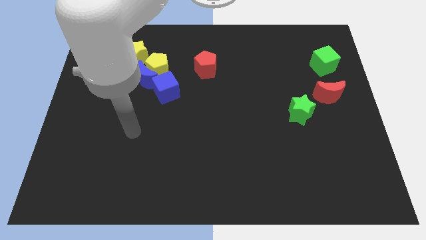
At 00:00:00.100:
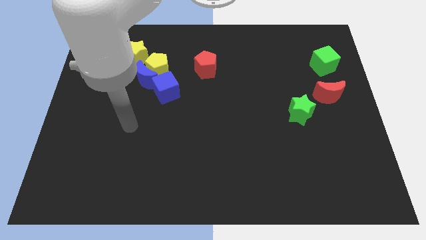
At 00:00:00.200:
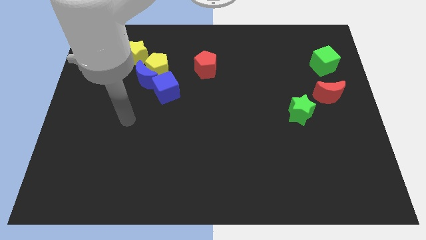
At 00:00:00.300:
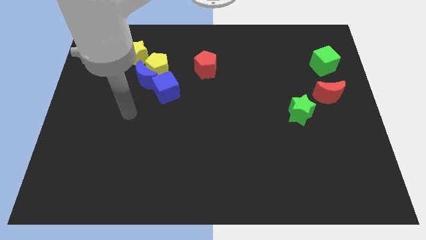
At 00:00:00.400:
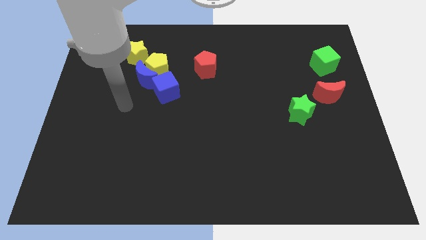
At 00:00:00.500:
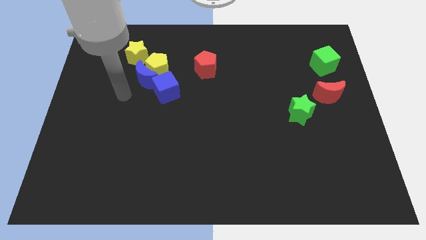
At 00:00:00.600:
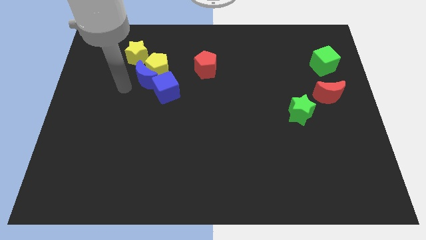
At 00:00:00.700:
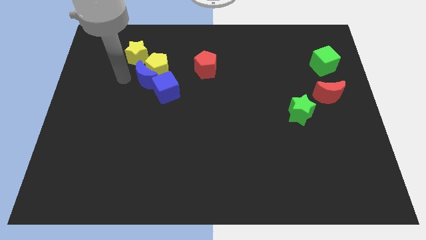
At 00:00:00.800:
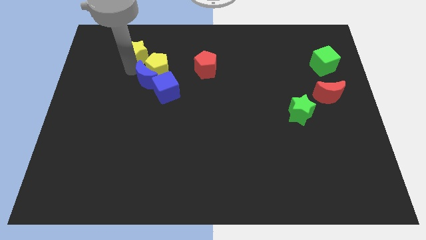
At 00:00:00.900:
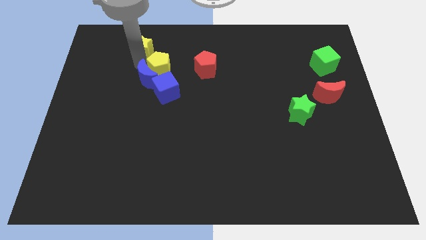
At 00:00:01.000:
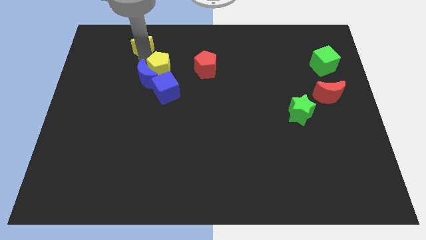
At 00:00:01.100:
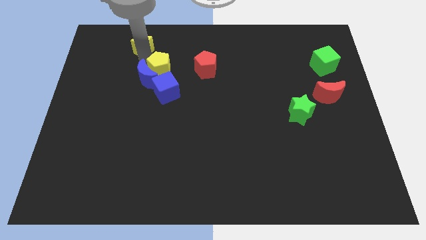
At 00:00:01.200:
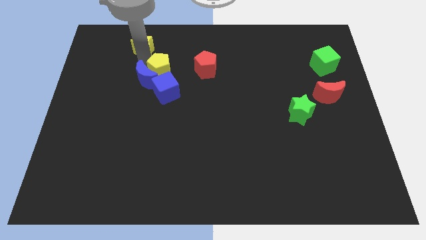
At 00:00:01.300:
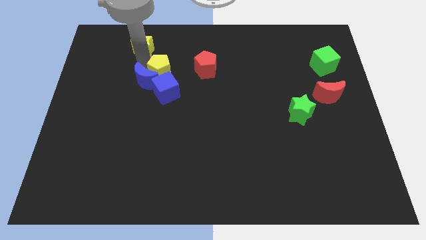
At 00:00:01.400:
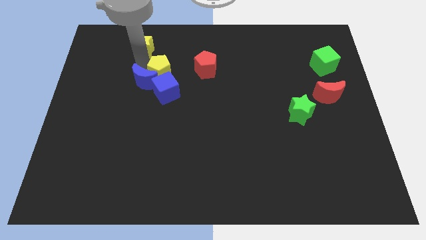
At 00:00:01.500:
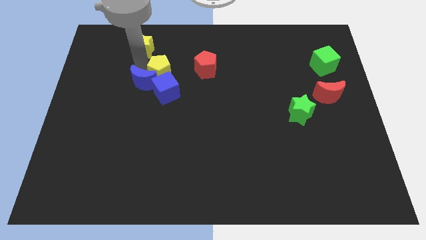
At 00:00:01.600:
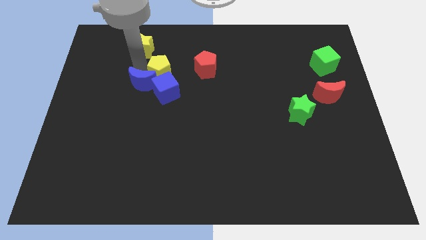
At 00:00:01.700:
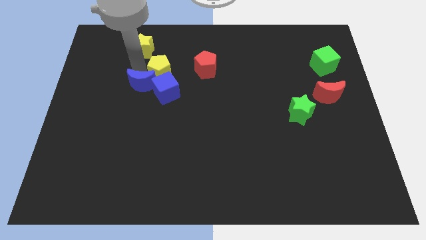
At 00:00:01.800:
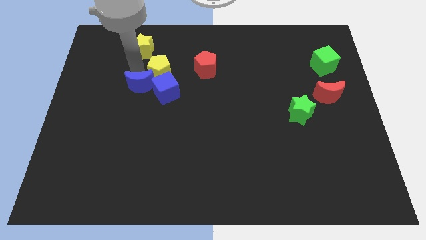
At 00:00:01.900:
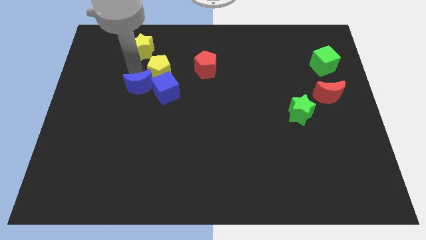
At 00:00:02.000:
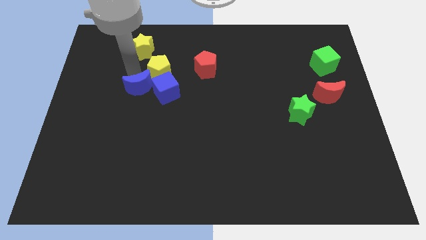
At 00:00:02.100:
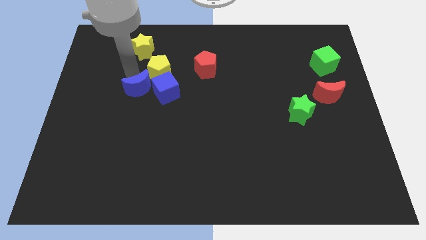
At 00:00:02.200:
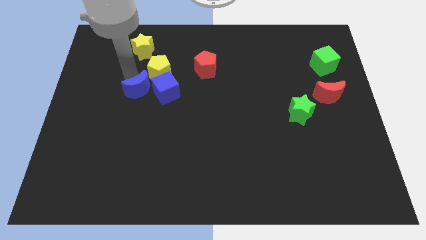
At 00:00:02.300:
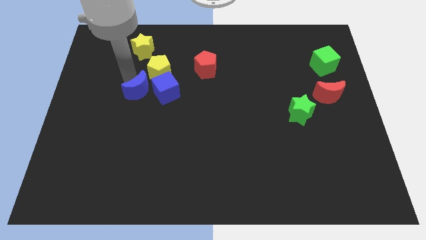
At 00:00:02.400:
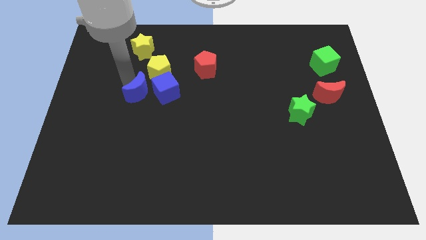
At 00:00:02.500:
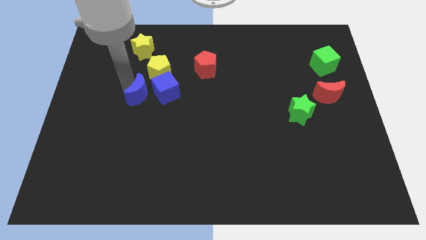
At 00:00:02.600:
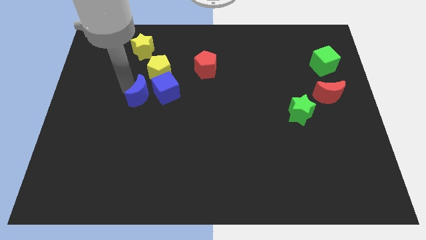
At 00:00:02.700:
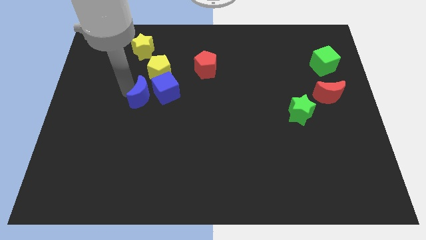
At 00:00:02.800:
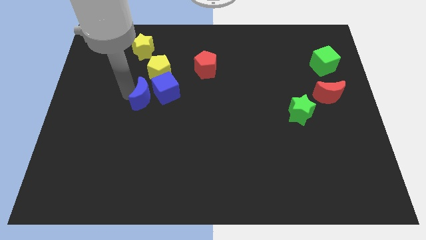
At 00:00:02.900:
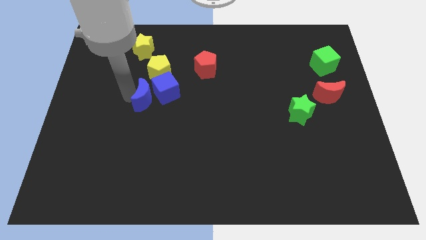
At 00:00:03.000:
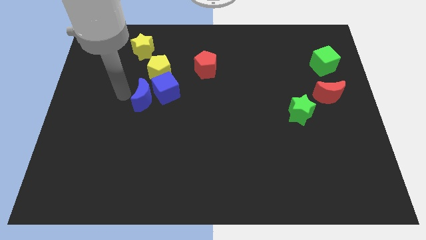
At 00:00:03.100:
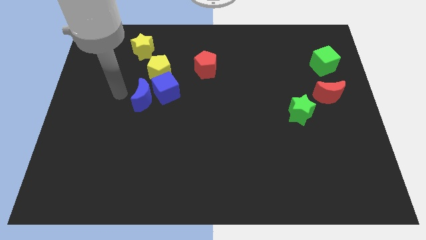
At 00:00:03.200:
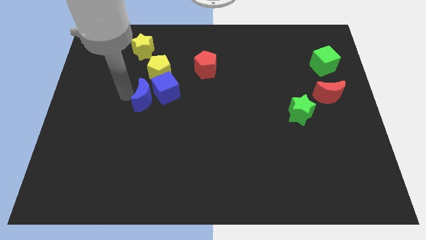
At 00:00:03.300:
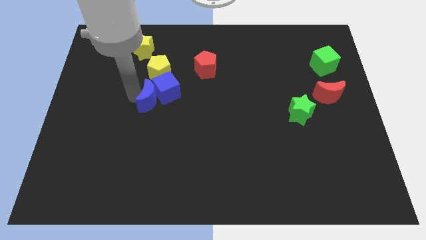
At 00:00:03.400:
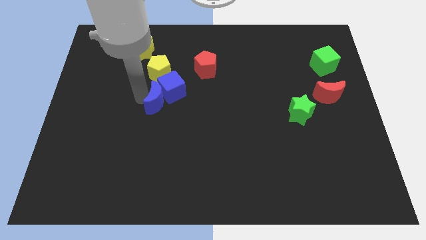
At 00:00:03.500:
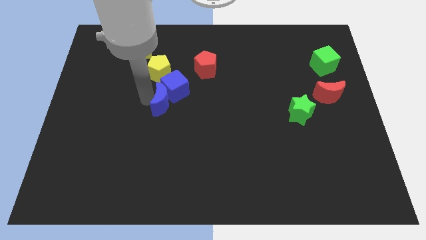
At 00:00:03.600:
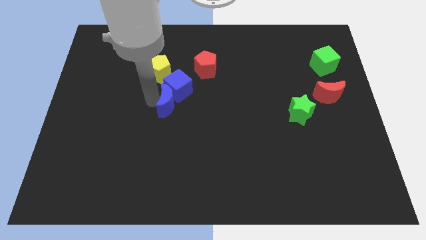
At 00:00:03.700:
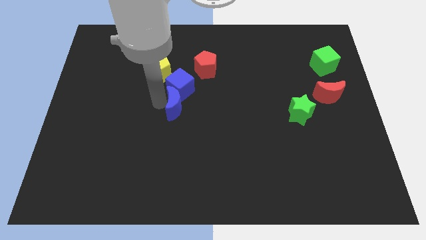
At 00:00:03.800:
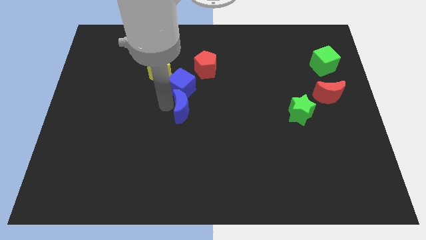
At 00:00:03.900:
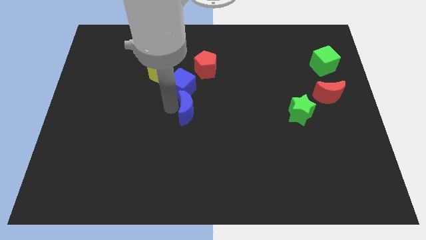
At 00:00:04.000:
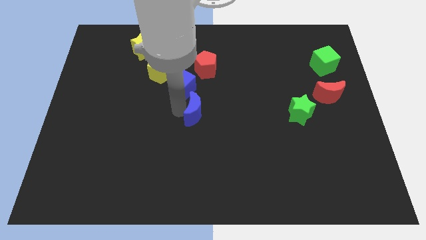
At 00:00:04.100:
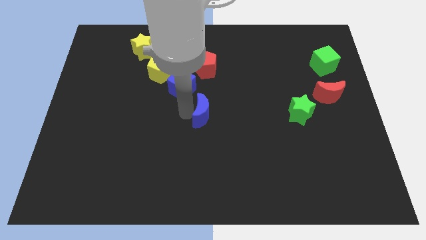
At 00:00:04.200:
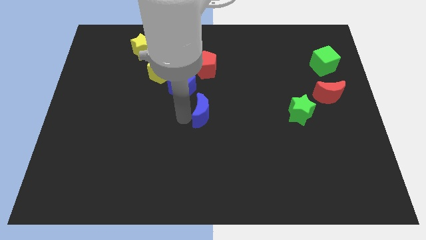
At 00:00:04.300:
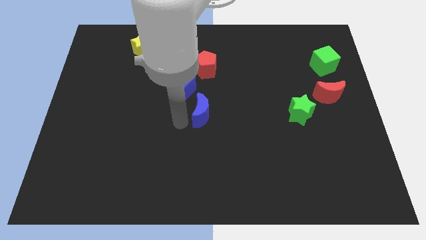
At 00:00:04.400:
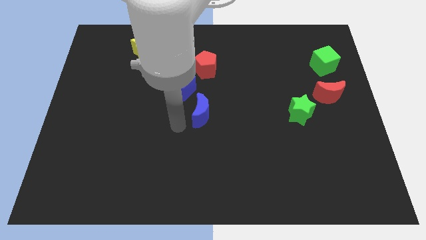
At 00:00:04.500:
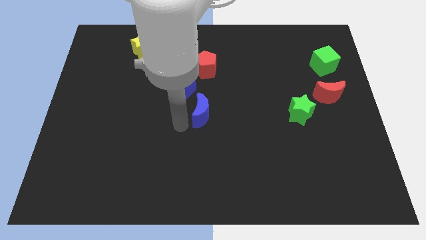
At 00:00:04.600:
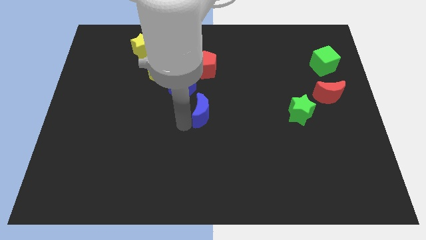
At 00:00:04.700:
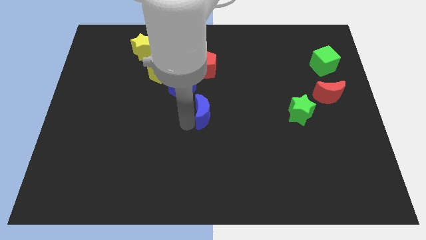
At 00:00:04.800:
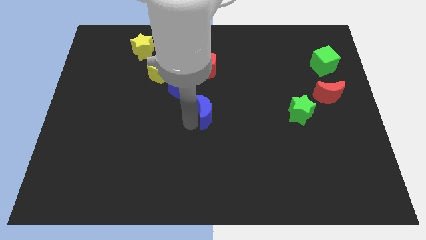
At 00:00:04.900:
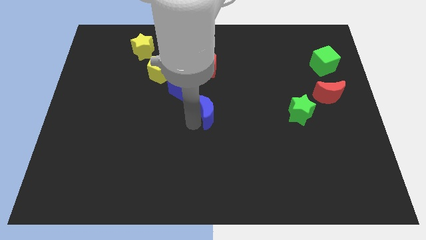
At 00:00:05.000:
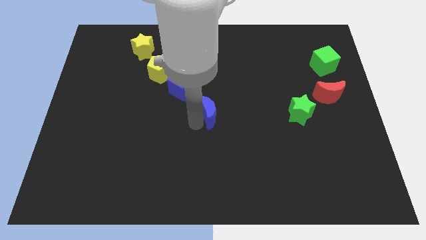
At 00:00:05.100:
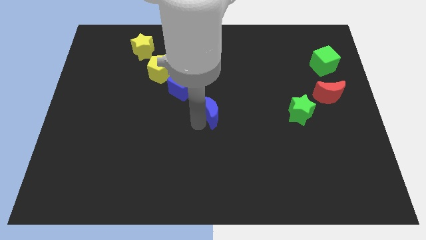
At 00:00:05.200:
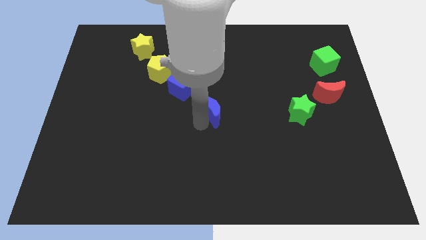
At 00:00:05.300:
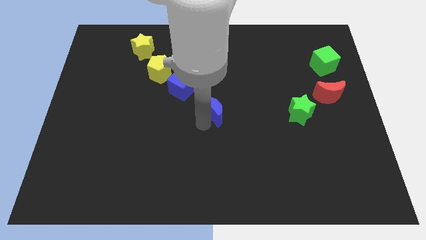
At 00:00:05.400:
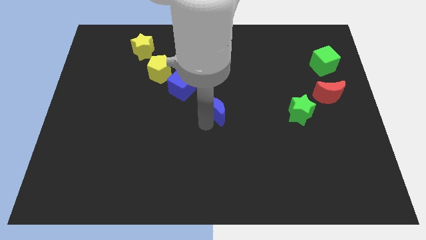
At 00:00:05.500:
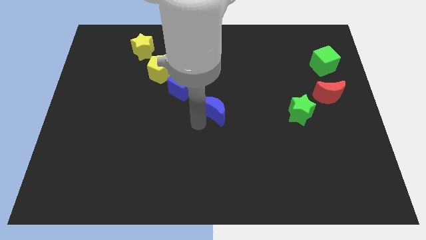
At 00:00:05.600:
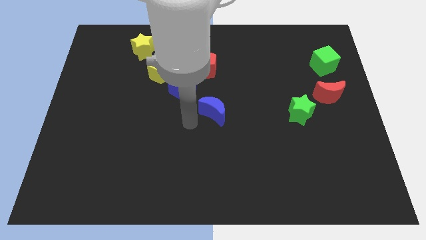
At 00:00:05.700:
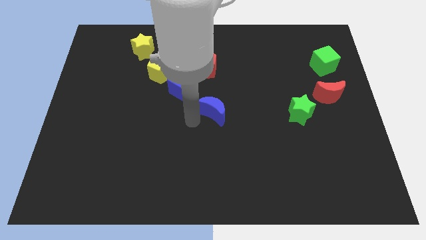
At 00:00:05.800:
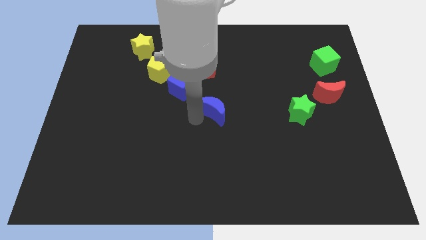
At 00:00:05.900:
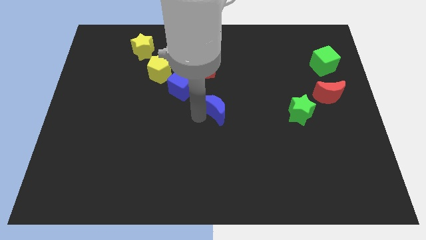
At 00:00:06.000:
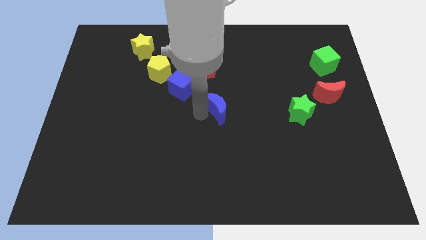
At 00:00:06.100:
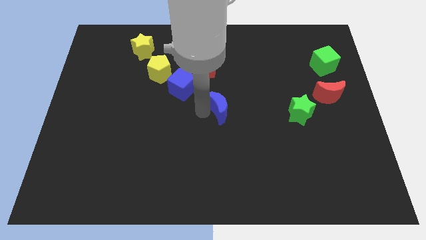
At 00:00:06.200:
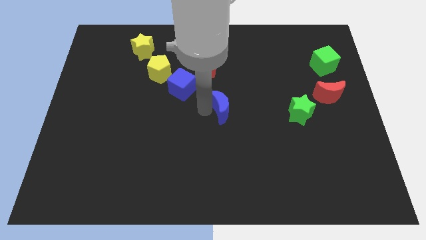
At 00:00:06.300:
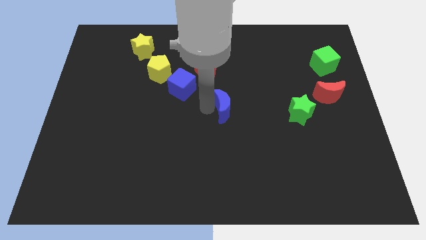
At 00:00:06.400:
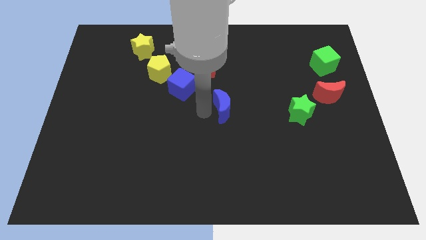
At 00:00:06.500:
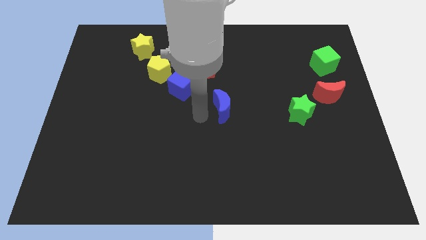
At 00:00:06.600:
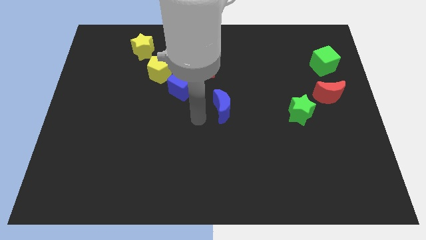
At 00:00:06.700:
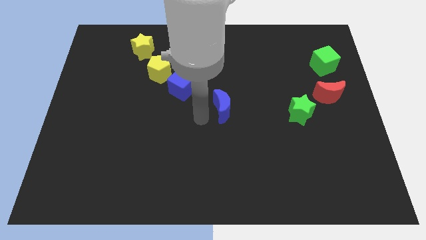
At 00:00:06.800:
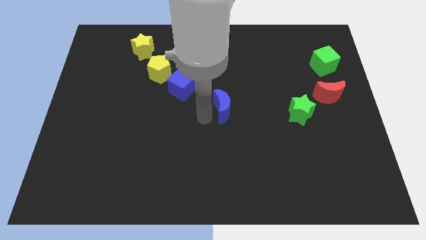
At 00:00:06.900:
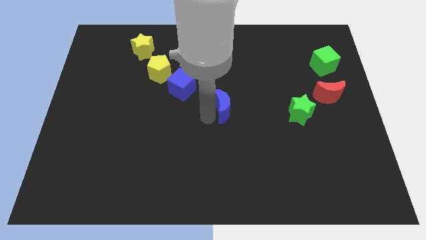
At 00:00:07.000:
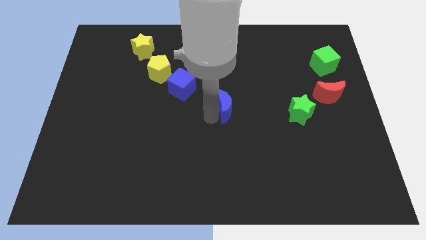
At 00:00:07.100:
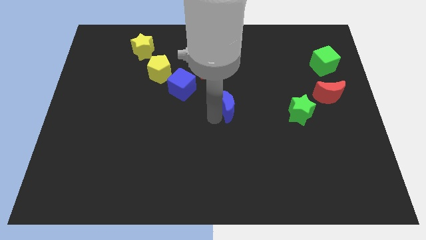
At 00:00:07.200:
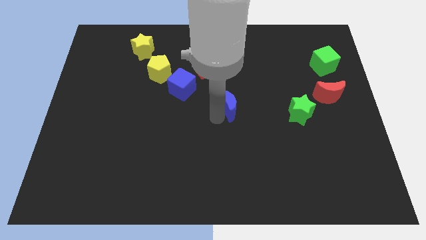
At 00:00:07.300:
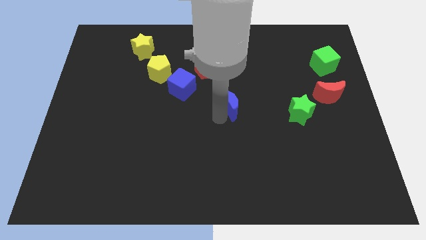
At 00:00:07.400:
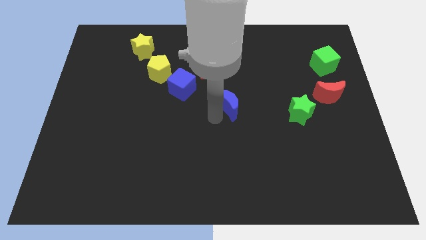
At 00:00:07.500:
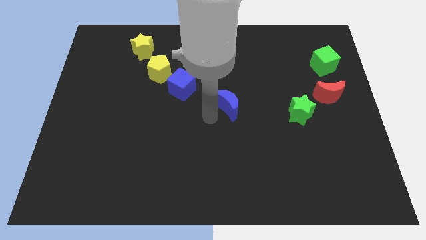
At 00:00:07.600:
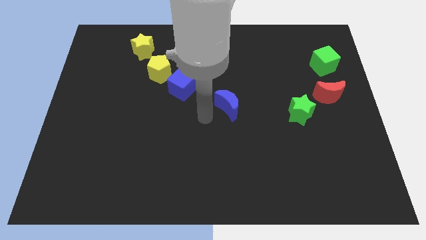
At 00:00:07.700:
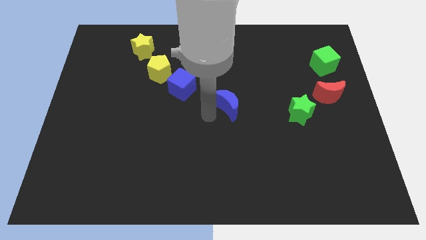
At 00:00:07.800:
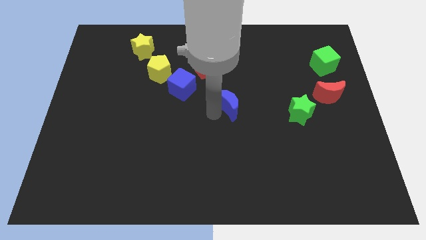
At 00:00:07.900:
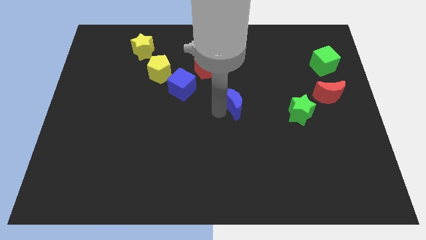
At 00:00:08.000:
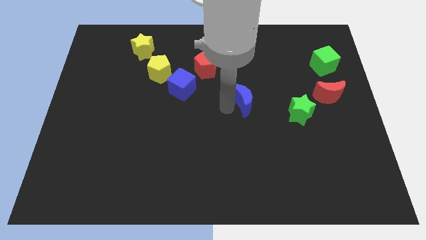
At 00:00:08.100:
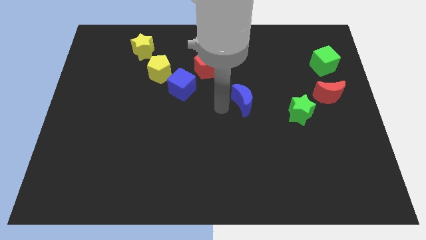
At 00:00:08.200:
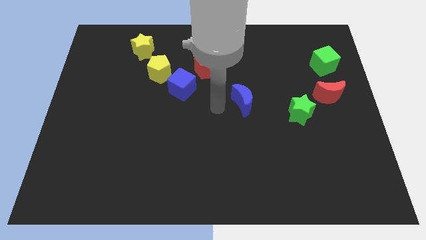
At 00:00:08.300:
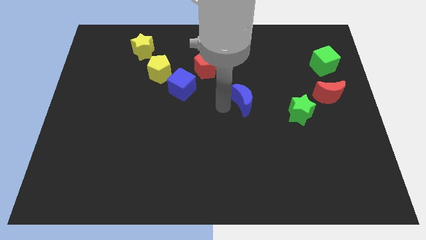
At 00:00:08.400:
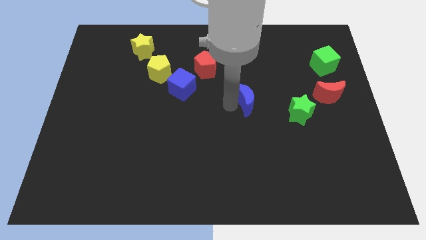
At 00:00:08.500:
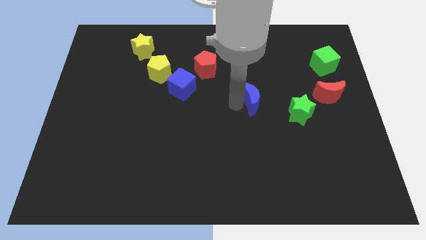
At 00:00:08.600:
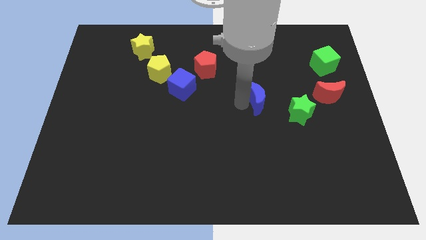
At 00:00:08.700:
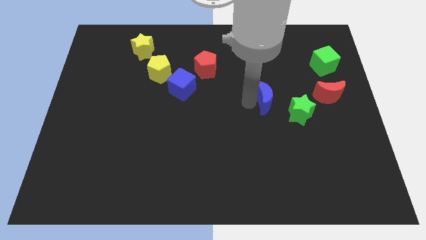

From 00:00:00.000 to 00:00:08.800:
slide the blue moon just left of the red moon
